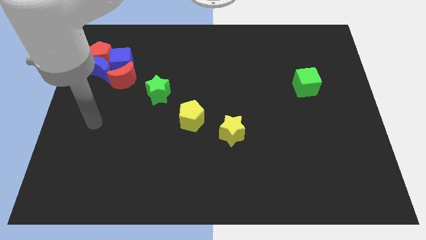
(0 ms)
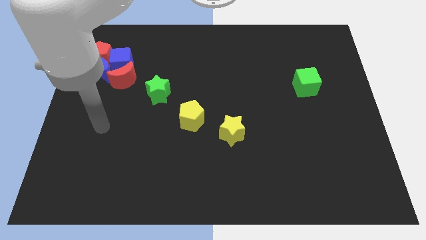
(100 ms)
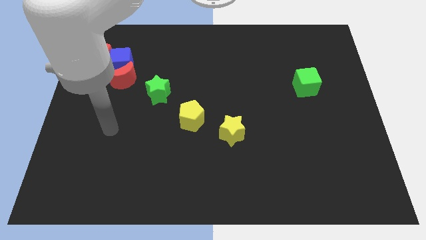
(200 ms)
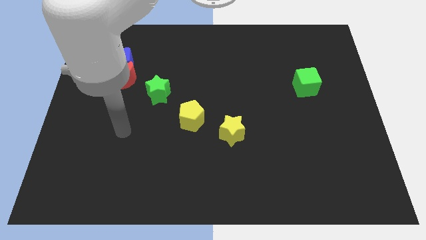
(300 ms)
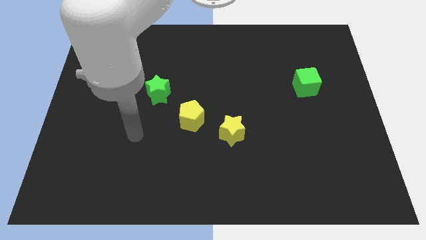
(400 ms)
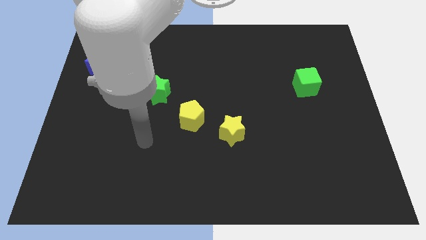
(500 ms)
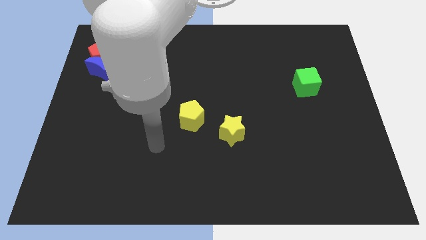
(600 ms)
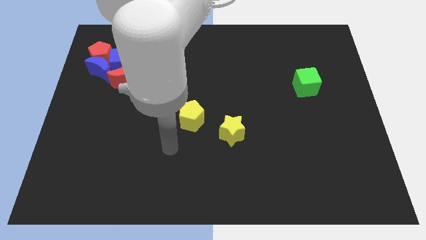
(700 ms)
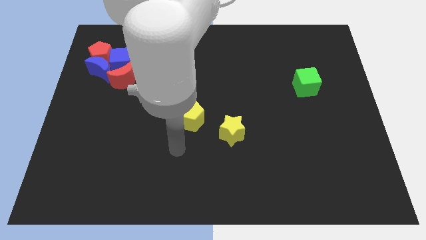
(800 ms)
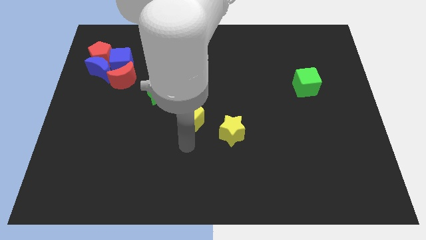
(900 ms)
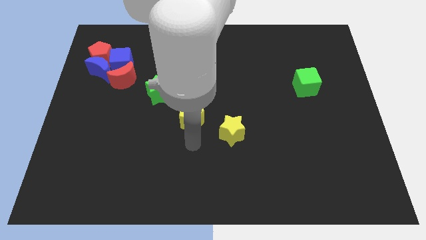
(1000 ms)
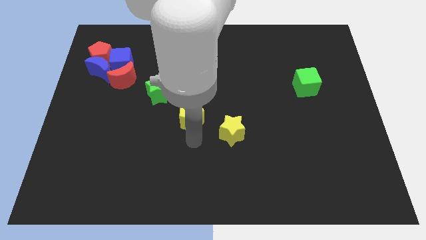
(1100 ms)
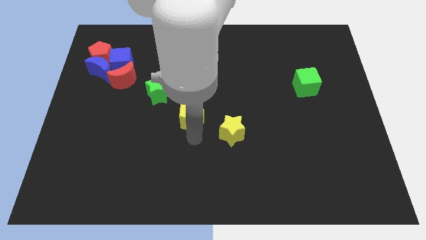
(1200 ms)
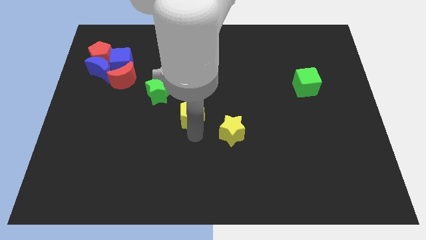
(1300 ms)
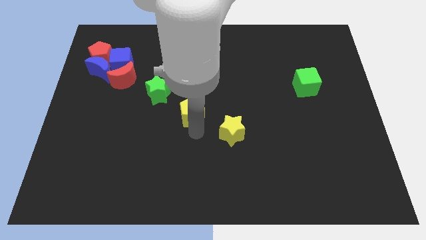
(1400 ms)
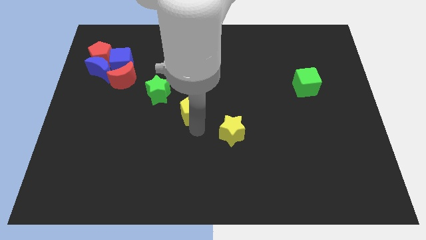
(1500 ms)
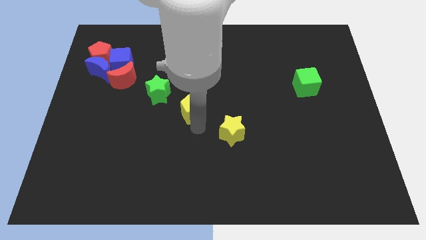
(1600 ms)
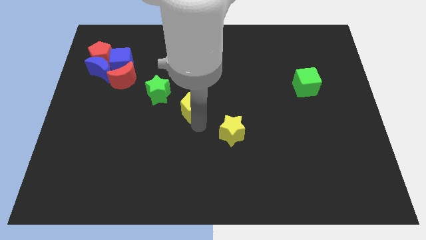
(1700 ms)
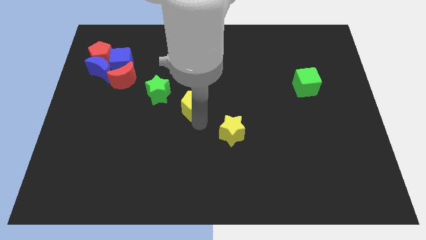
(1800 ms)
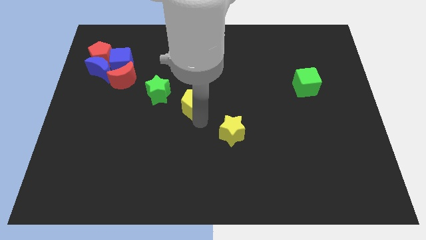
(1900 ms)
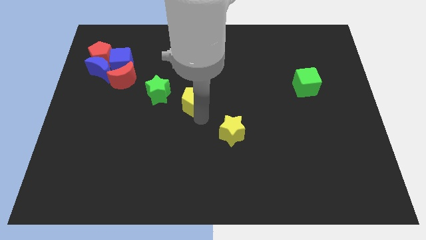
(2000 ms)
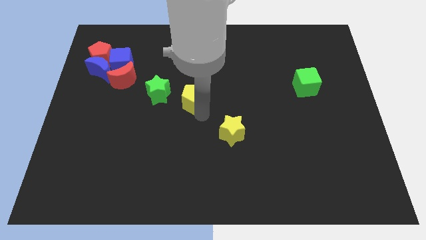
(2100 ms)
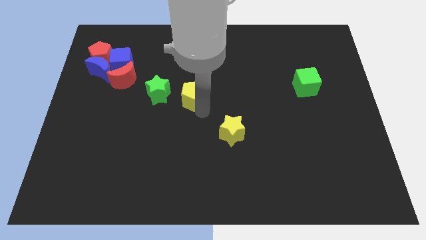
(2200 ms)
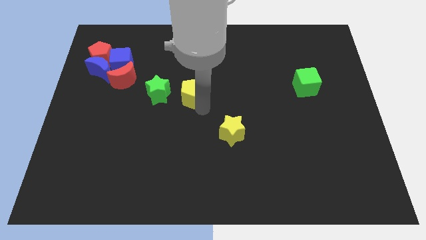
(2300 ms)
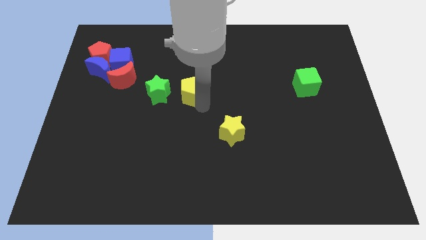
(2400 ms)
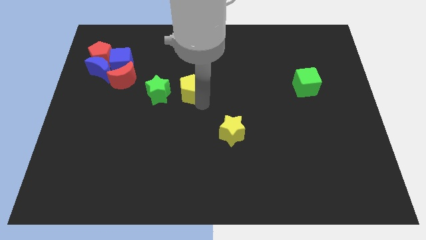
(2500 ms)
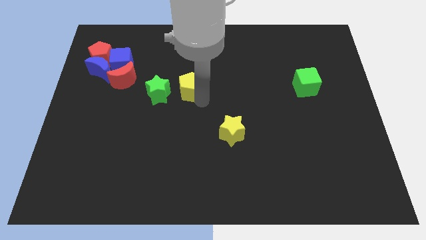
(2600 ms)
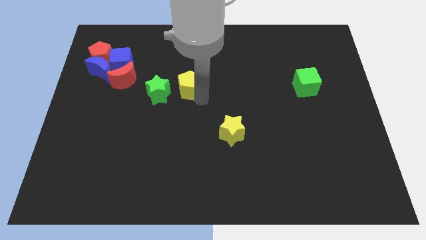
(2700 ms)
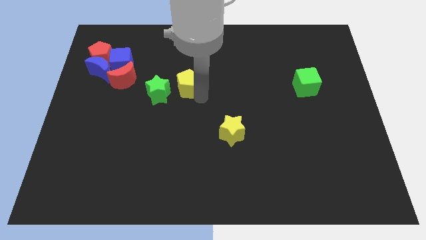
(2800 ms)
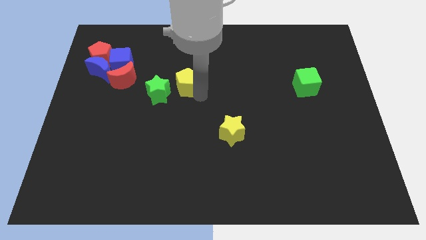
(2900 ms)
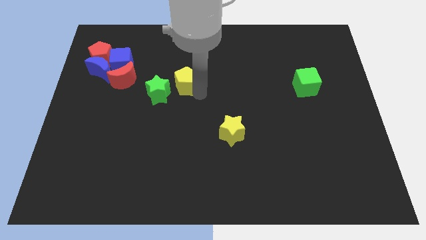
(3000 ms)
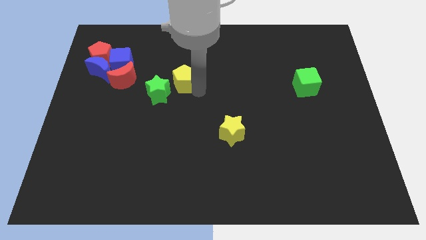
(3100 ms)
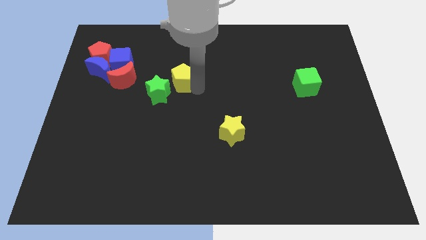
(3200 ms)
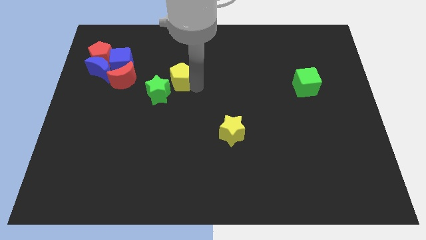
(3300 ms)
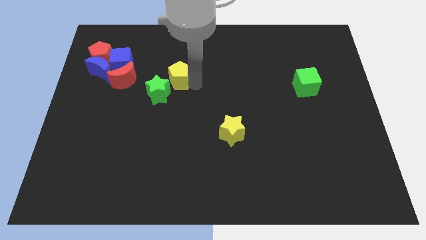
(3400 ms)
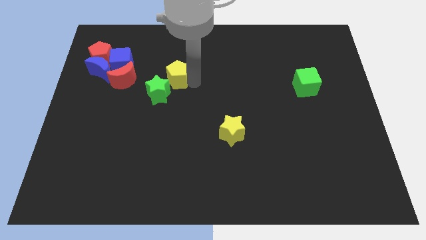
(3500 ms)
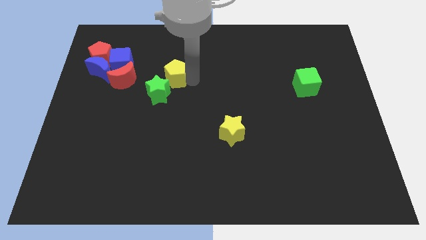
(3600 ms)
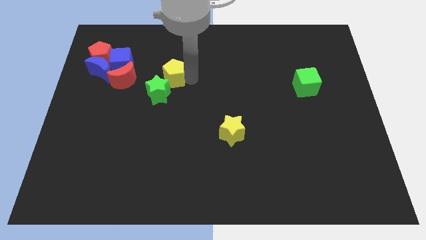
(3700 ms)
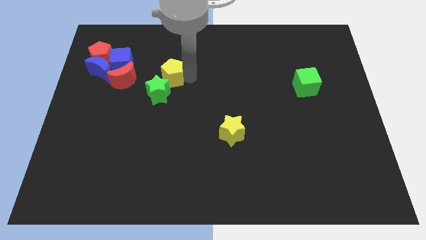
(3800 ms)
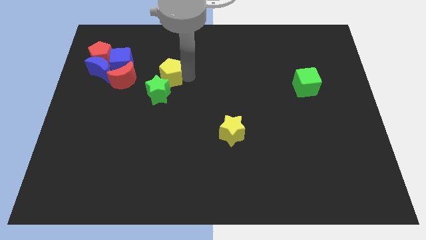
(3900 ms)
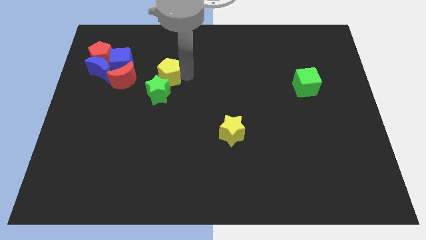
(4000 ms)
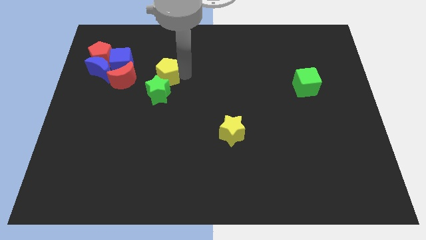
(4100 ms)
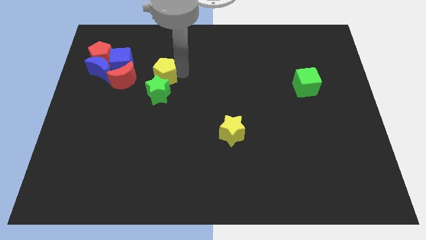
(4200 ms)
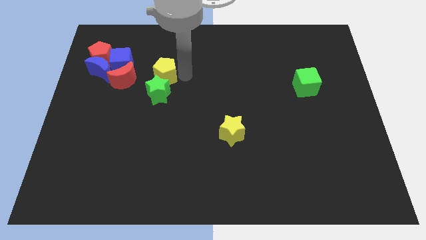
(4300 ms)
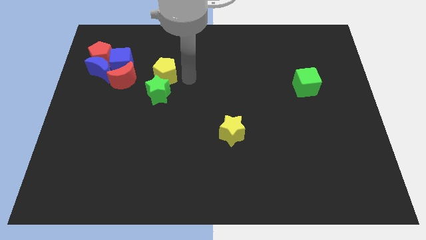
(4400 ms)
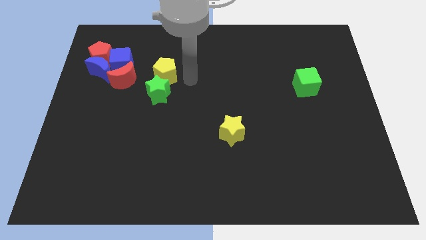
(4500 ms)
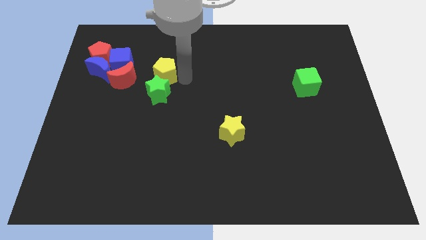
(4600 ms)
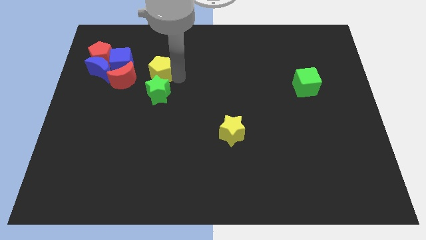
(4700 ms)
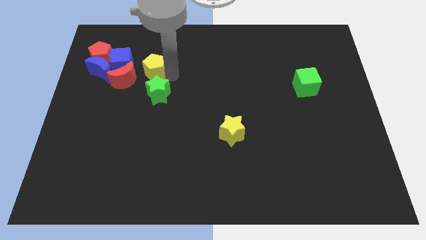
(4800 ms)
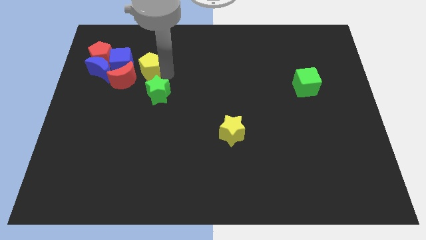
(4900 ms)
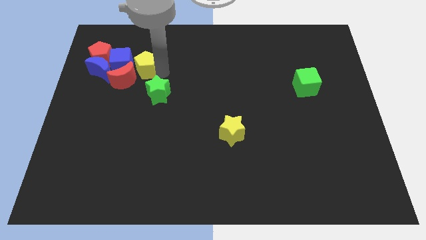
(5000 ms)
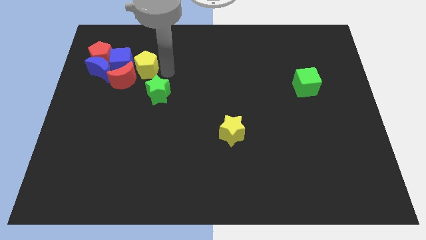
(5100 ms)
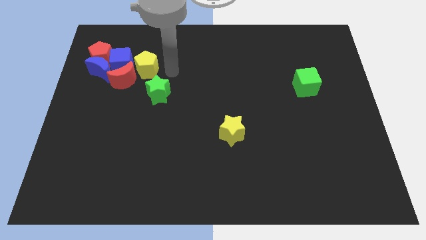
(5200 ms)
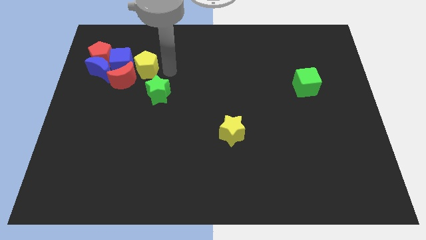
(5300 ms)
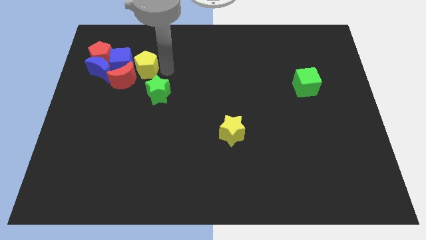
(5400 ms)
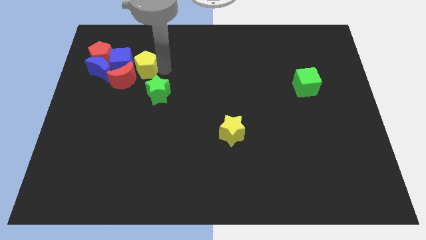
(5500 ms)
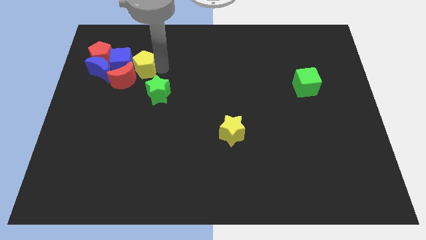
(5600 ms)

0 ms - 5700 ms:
put the yellow pentagon to the blue cube

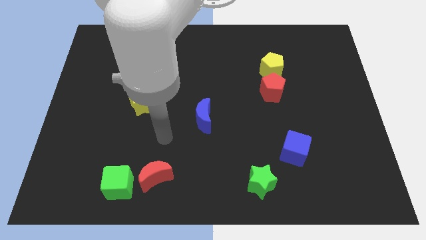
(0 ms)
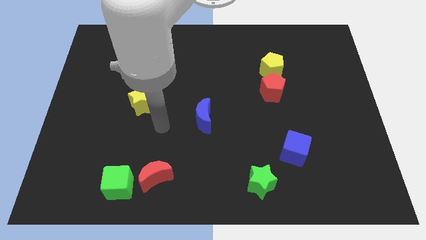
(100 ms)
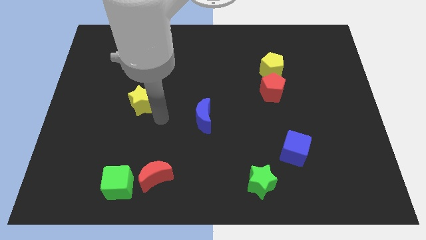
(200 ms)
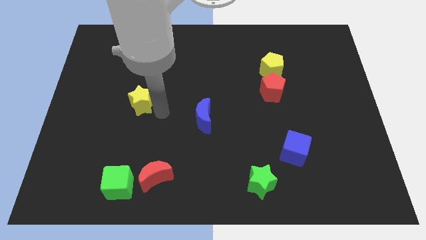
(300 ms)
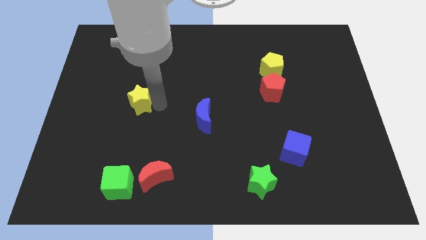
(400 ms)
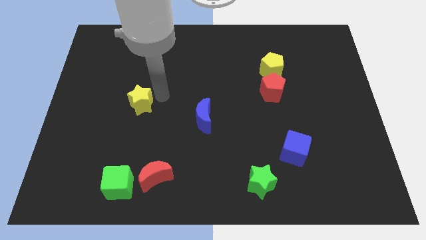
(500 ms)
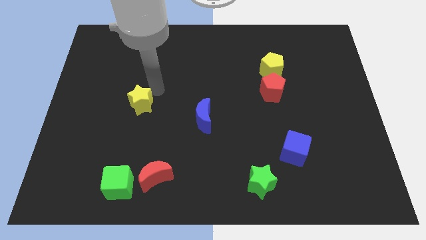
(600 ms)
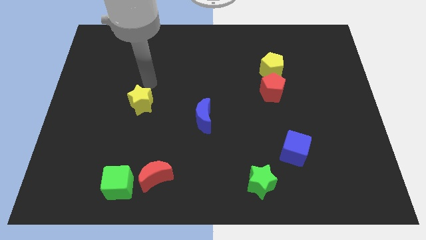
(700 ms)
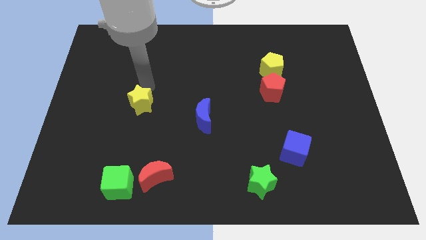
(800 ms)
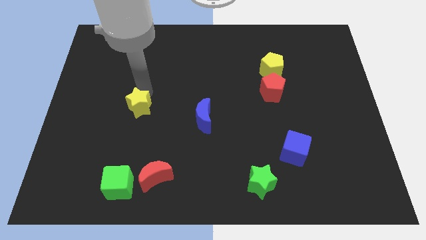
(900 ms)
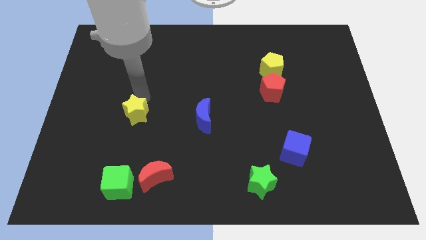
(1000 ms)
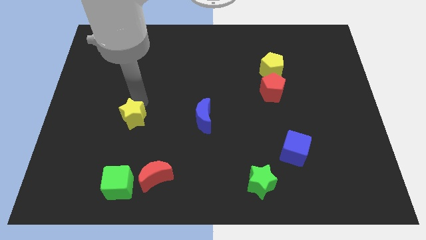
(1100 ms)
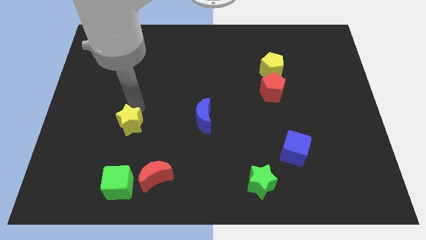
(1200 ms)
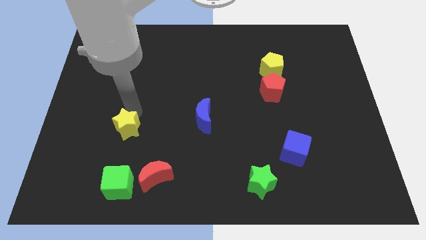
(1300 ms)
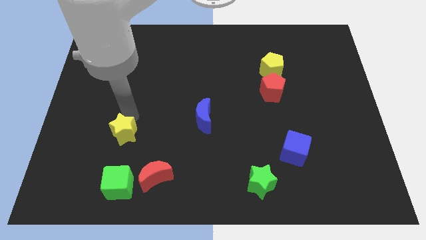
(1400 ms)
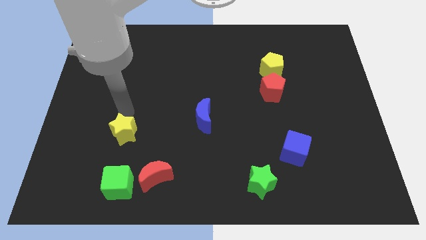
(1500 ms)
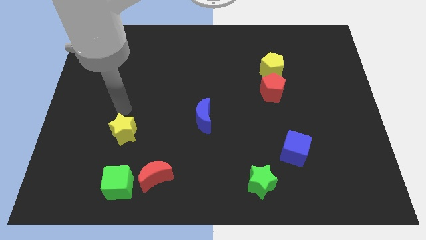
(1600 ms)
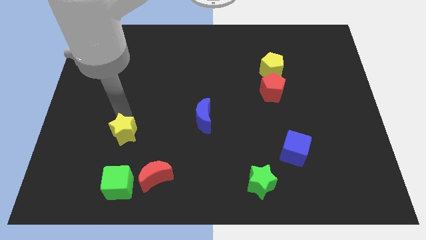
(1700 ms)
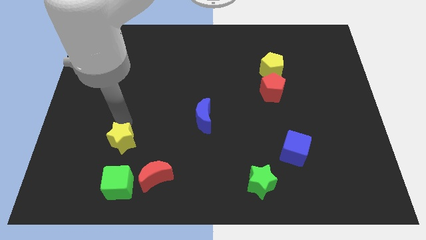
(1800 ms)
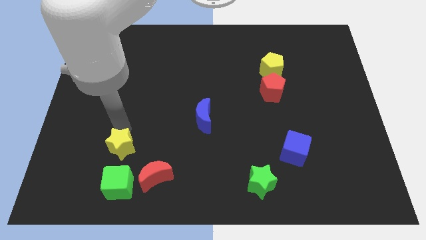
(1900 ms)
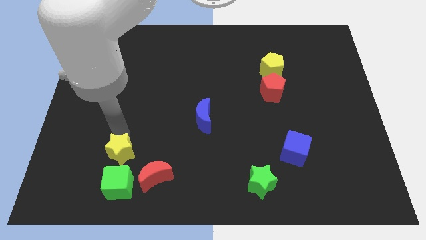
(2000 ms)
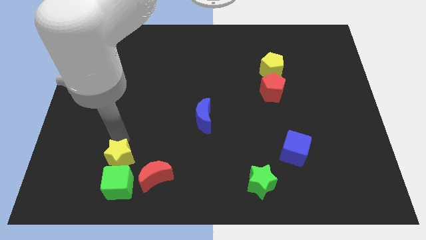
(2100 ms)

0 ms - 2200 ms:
put the yellow star to the green cube
